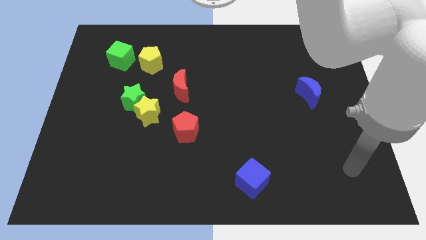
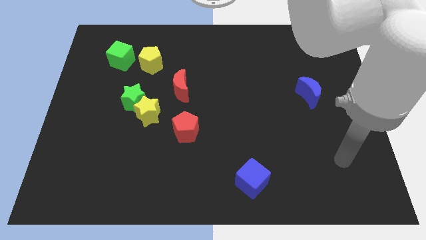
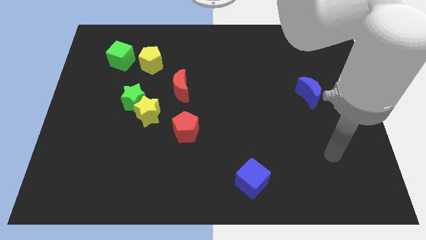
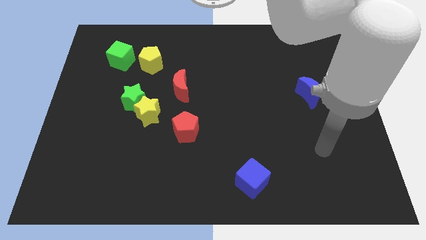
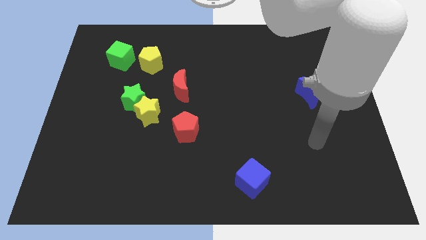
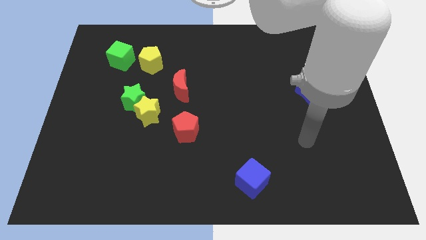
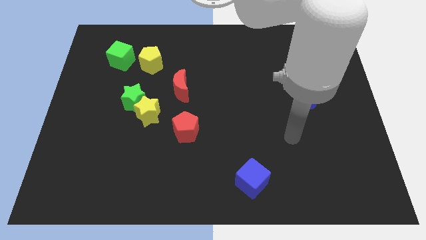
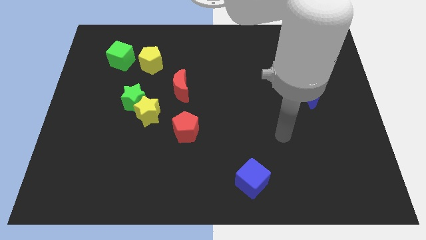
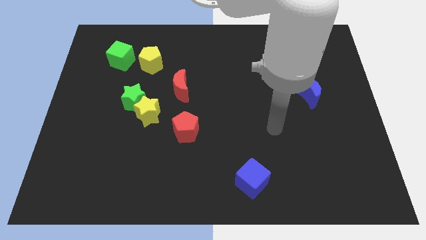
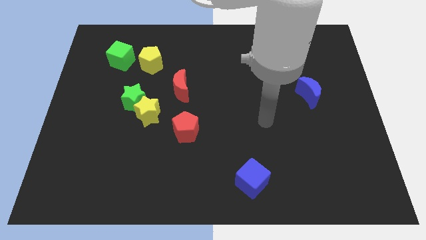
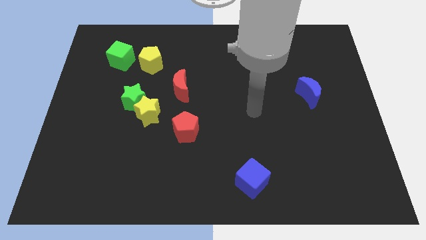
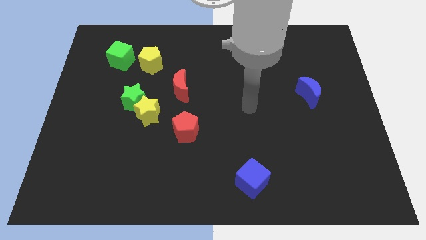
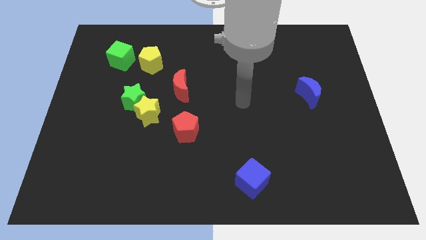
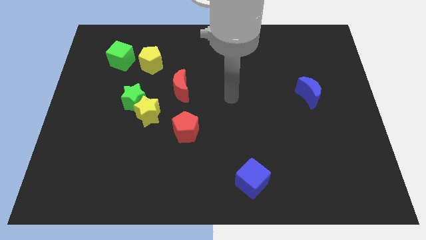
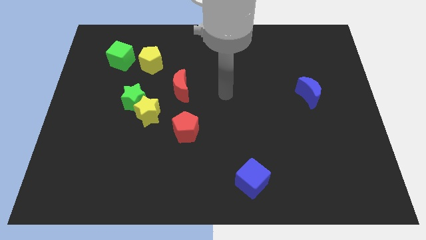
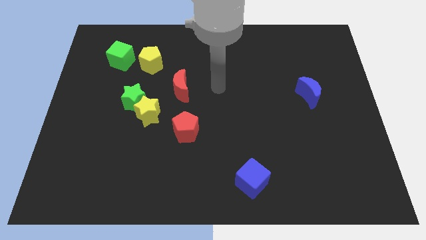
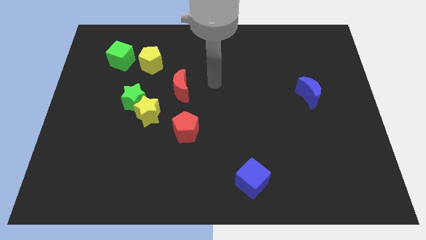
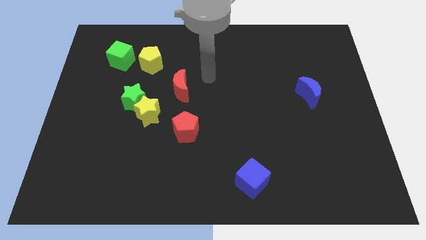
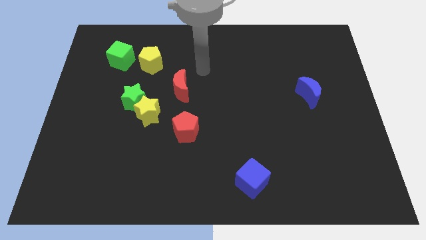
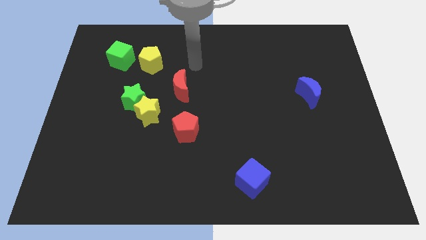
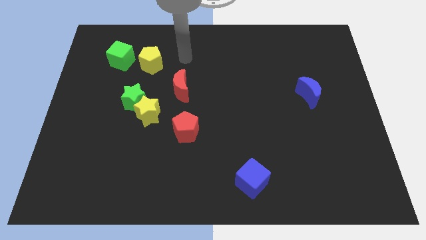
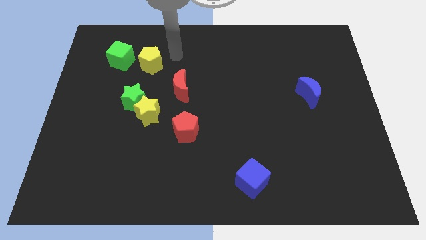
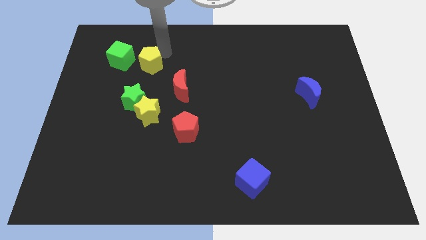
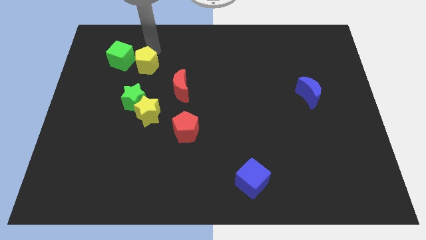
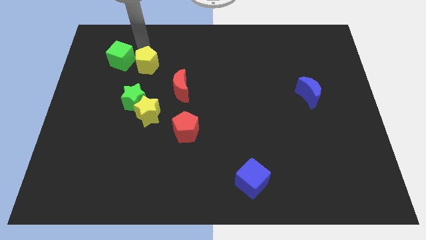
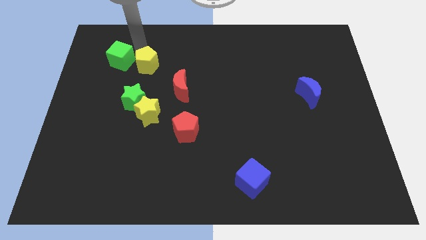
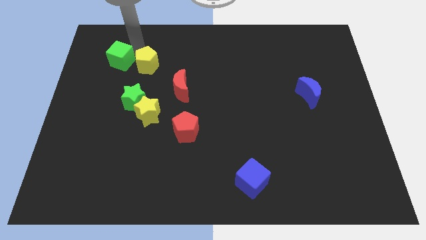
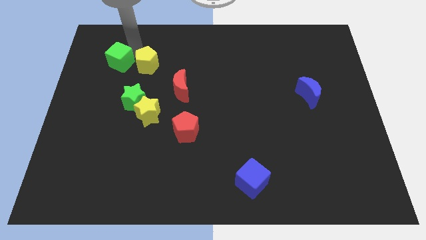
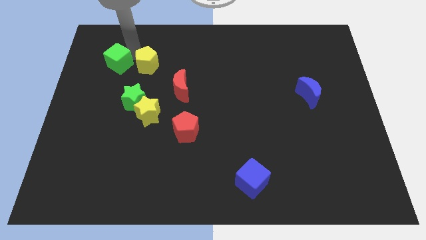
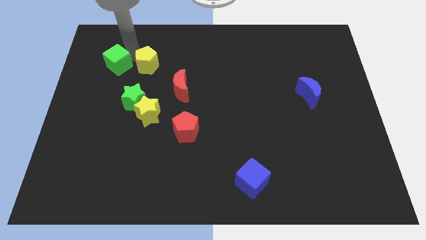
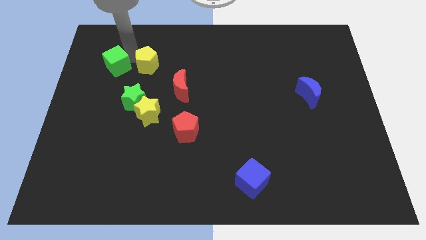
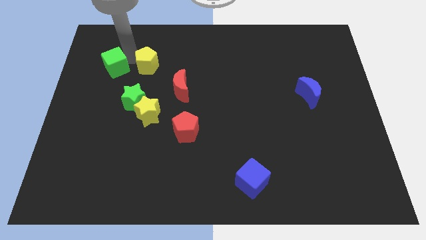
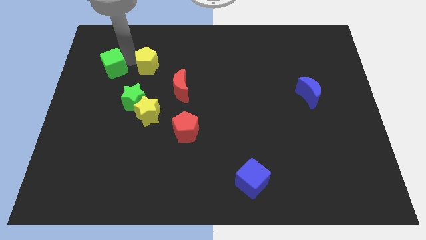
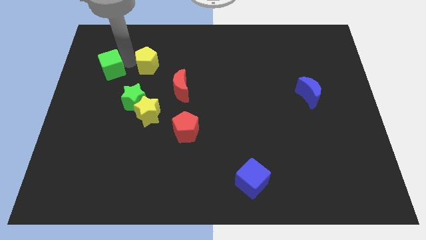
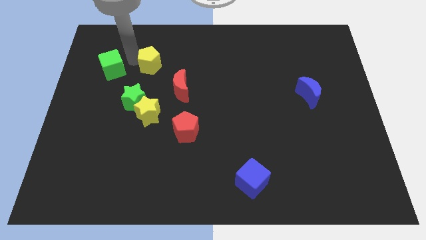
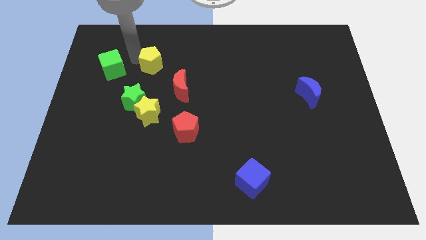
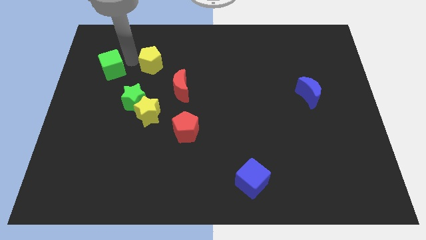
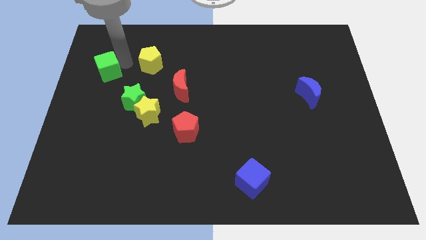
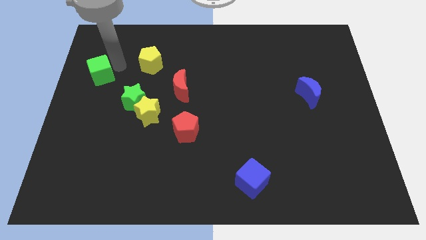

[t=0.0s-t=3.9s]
push the green cube to the center left

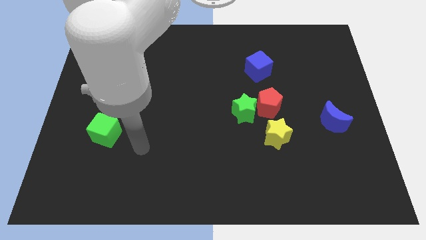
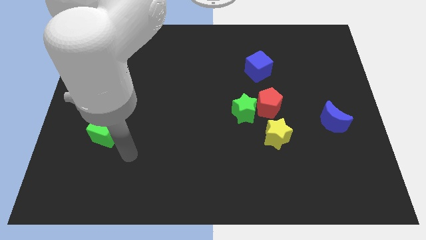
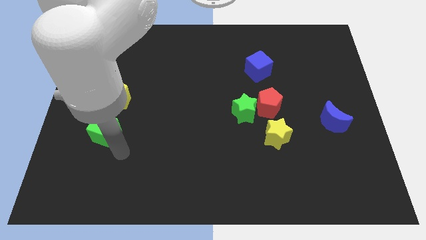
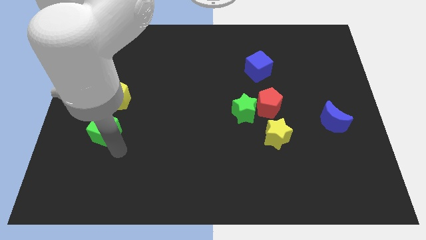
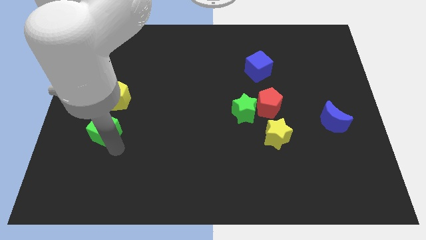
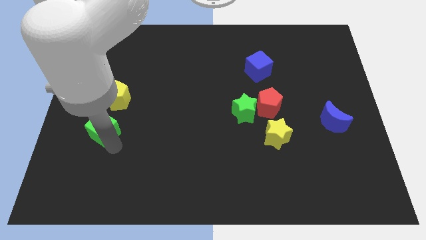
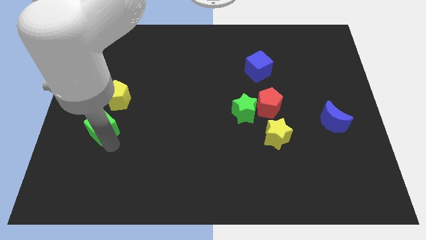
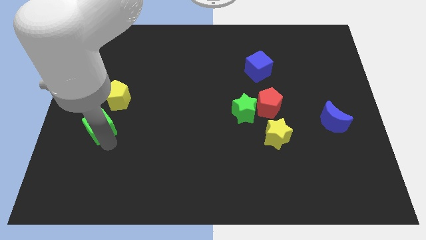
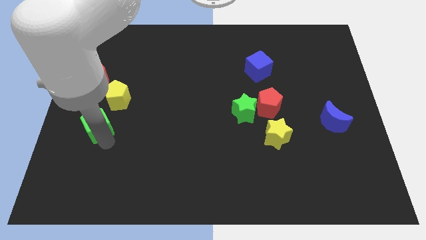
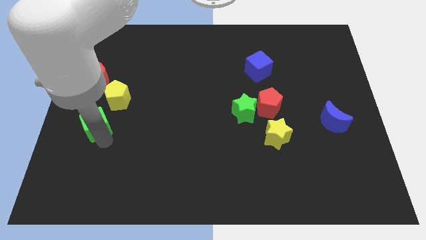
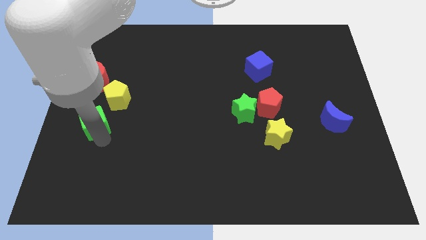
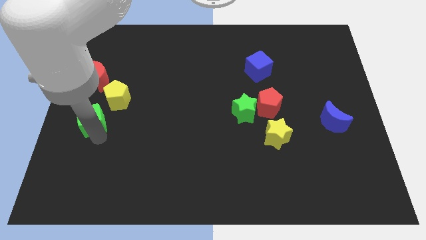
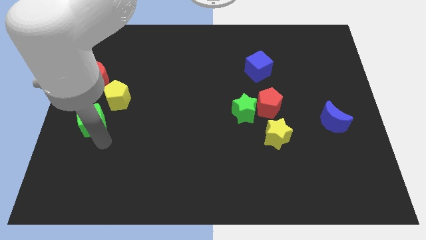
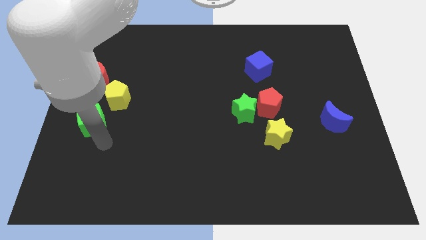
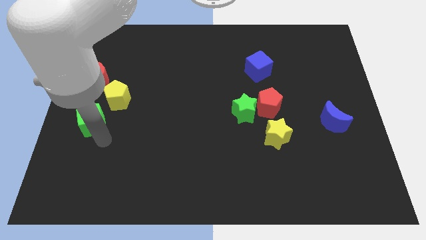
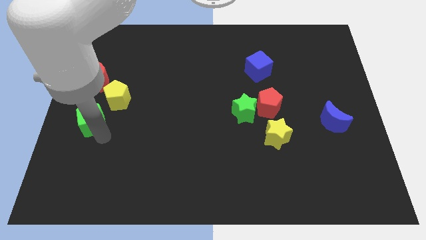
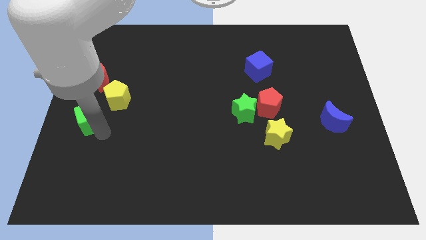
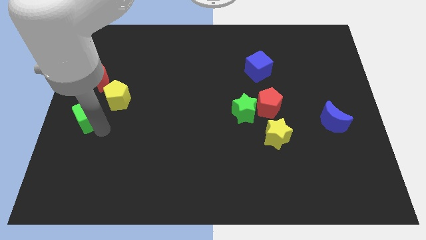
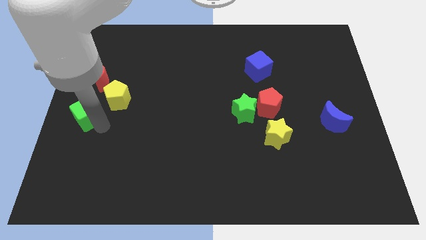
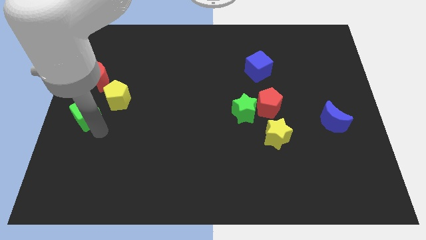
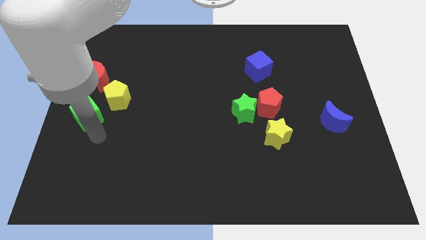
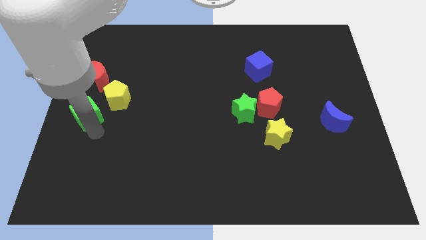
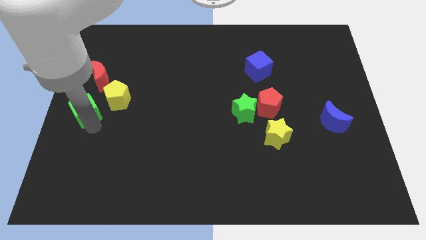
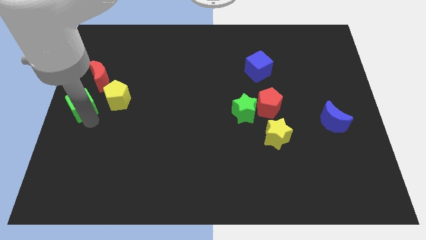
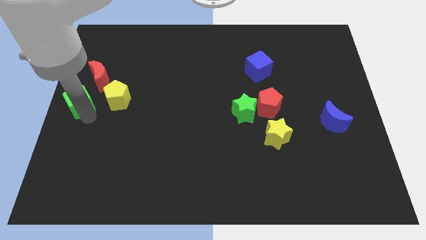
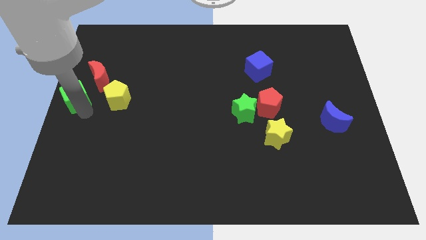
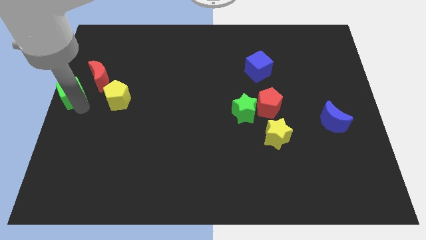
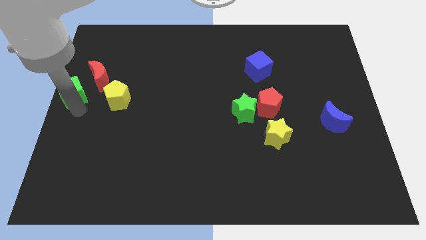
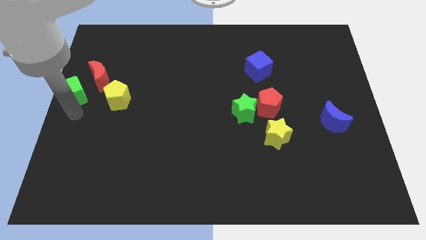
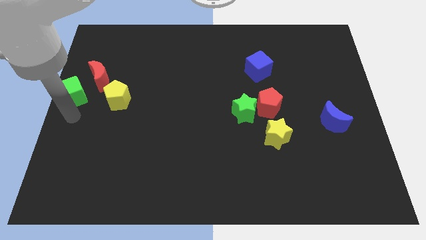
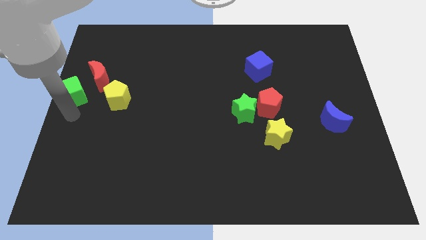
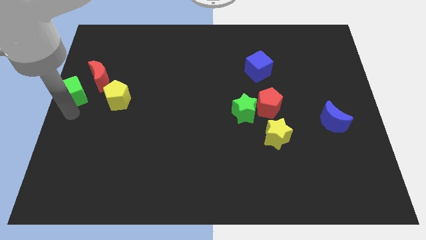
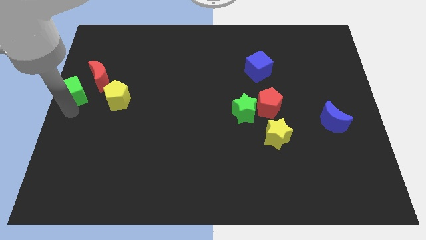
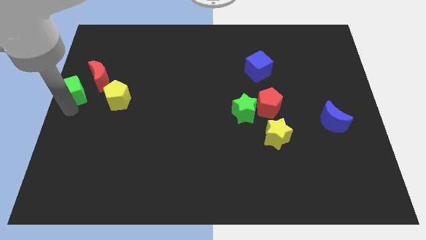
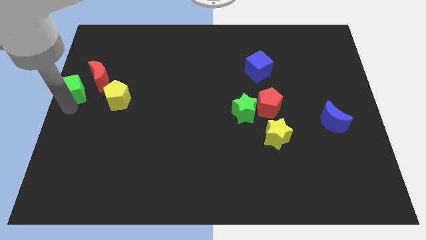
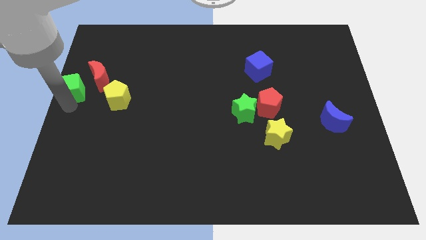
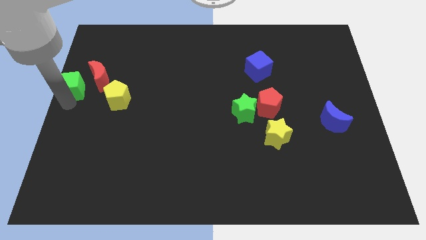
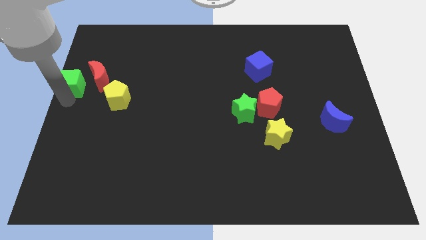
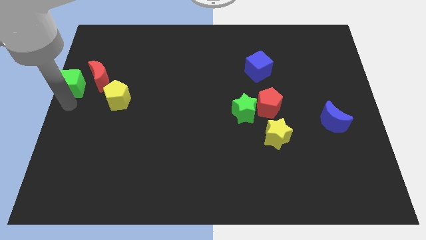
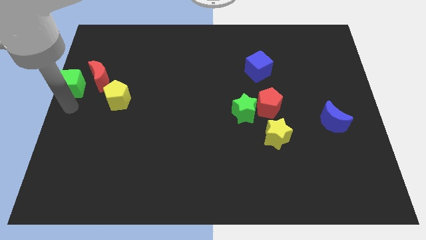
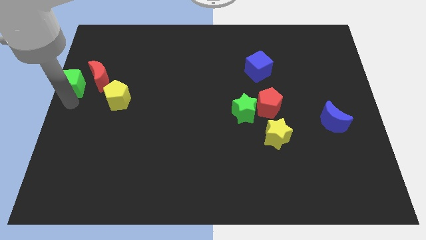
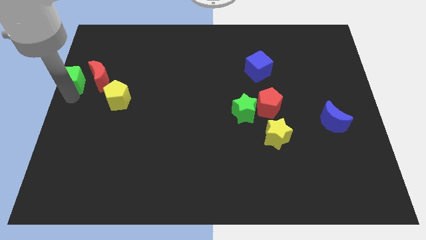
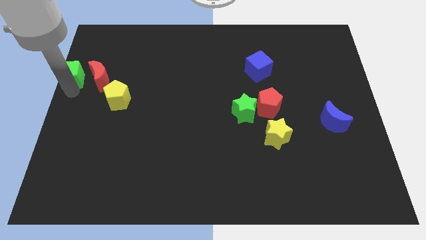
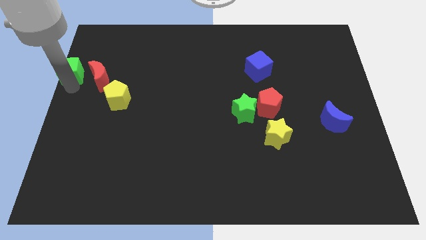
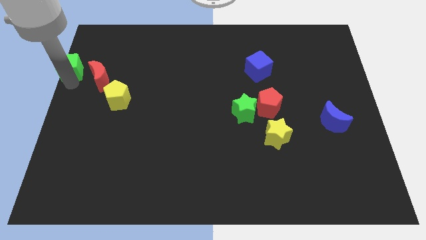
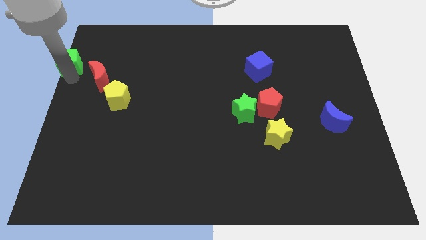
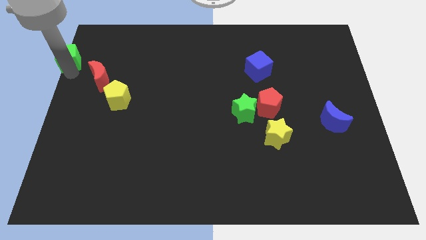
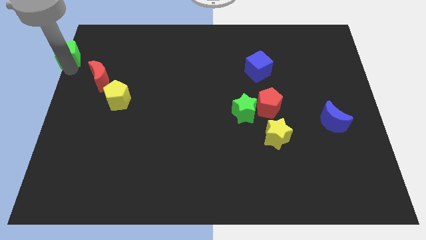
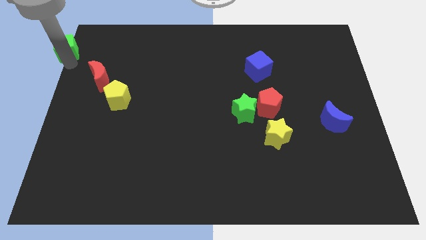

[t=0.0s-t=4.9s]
put the green cube to the upper left corner
